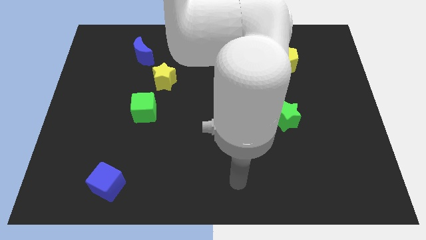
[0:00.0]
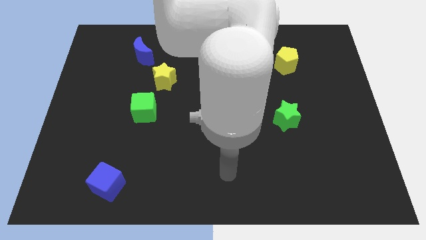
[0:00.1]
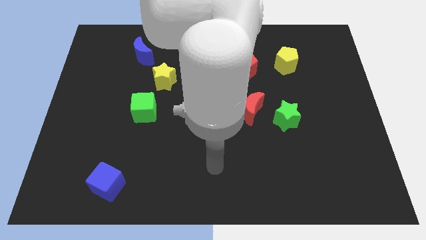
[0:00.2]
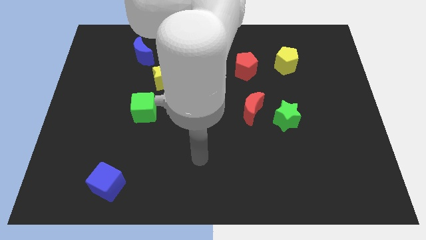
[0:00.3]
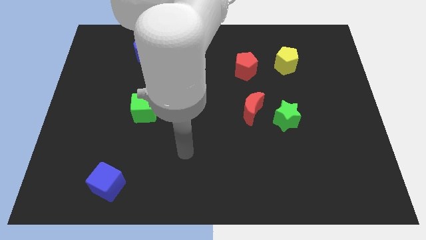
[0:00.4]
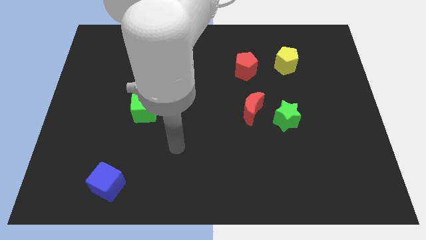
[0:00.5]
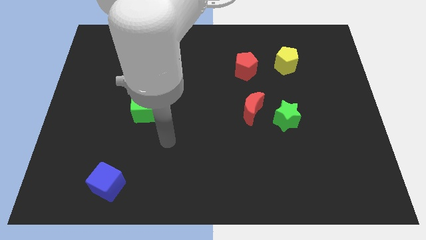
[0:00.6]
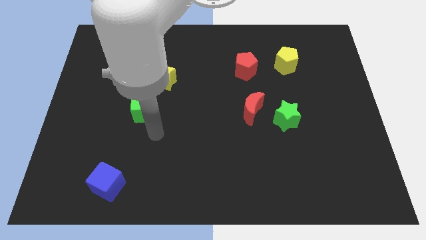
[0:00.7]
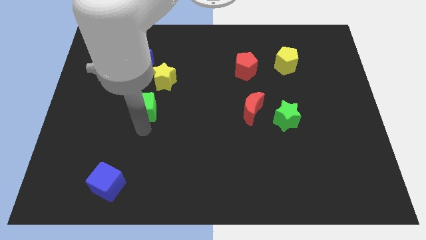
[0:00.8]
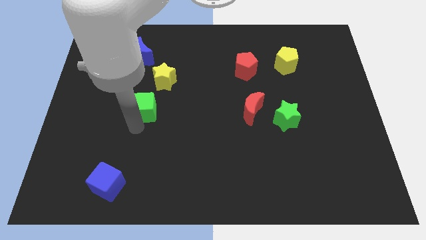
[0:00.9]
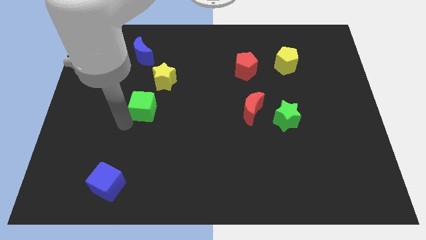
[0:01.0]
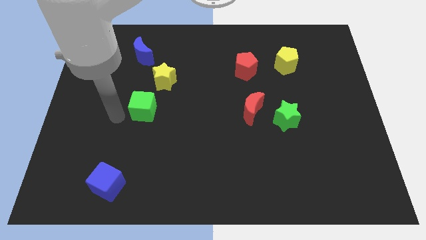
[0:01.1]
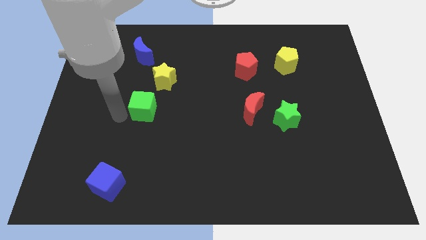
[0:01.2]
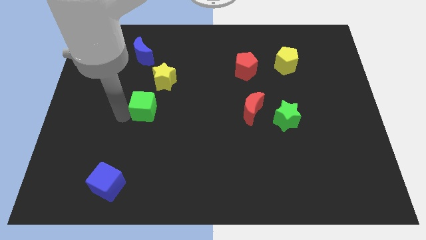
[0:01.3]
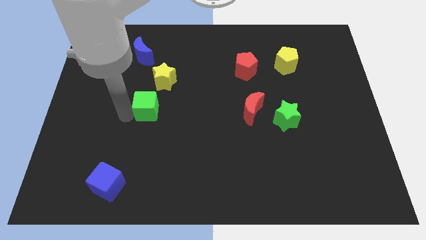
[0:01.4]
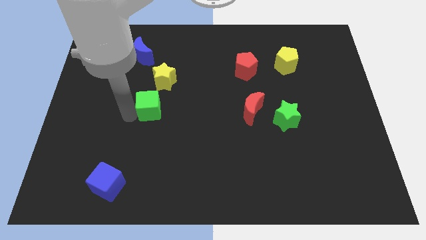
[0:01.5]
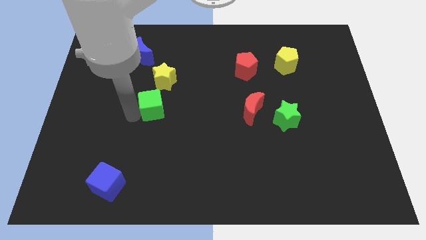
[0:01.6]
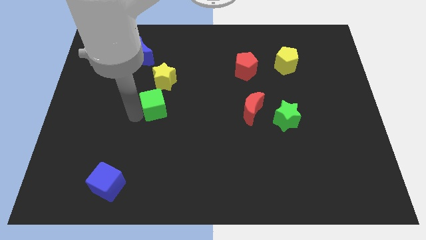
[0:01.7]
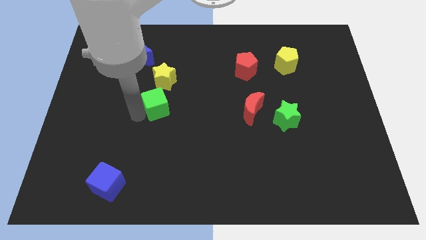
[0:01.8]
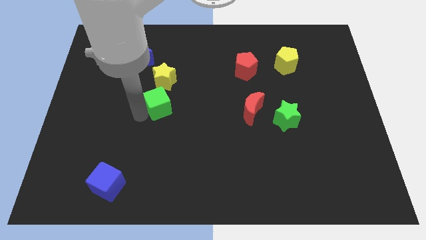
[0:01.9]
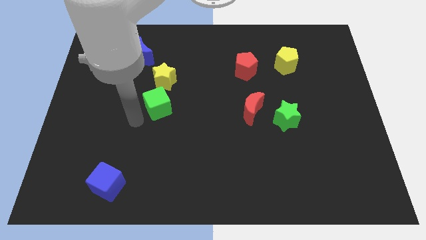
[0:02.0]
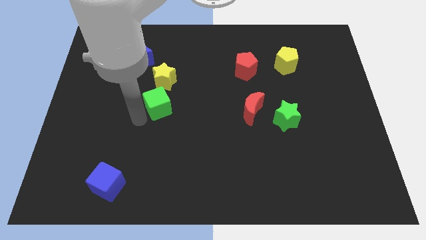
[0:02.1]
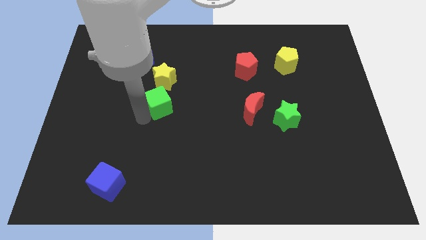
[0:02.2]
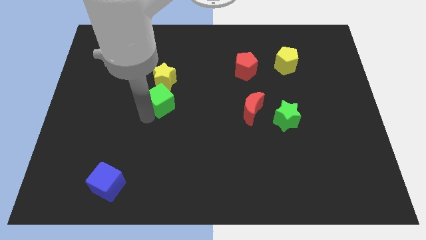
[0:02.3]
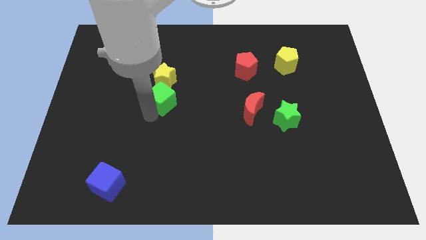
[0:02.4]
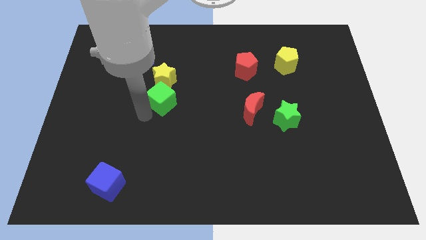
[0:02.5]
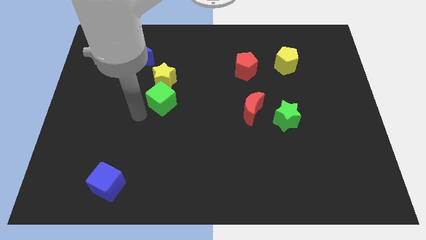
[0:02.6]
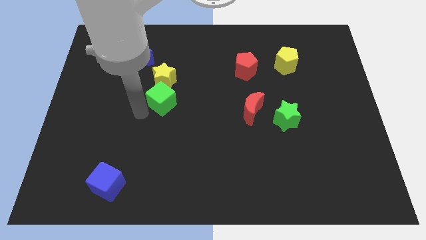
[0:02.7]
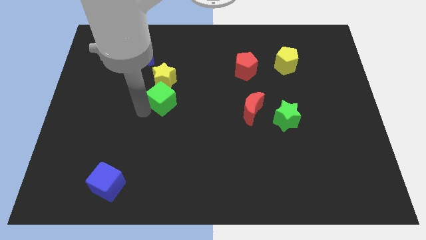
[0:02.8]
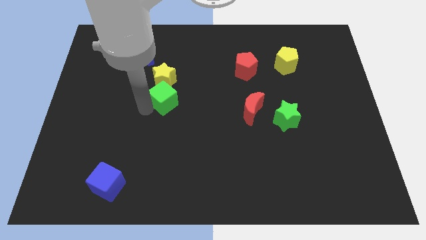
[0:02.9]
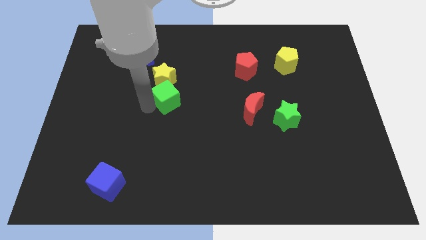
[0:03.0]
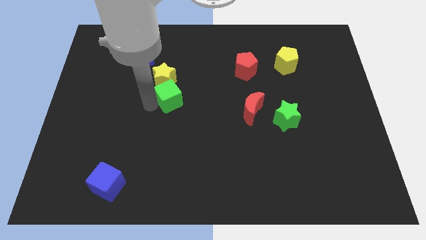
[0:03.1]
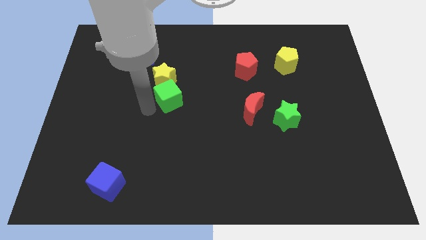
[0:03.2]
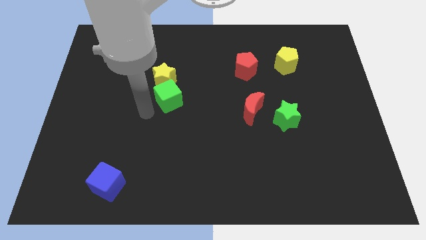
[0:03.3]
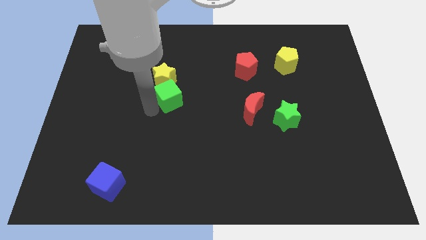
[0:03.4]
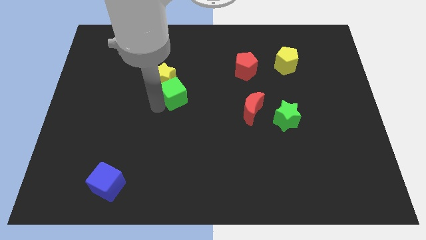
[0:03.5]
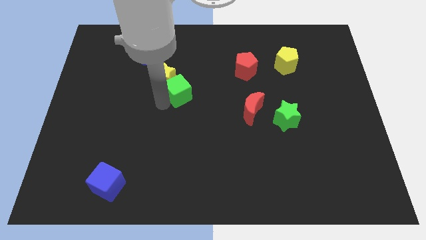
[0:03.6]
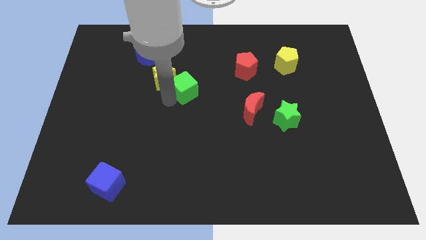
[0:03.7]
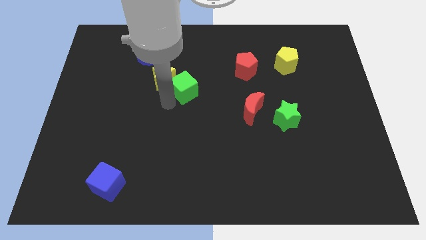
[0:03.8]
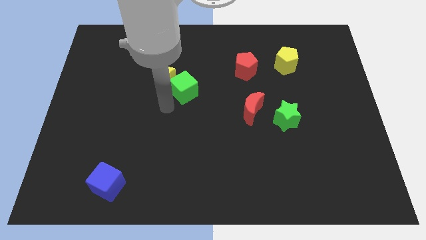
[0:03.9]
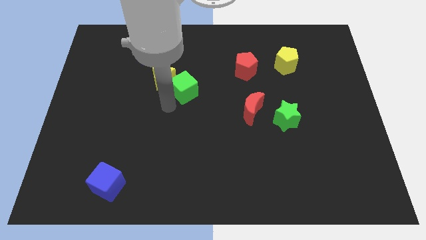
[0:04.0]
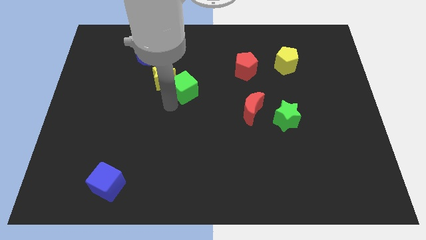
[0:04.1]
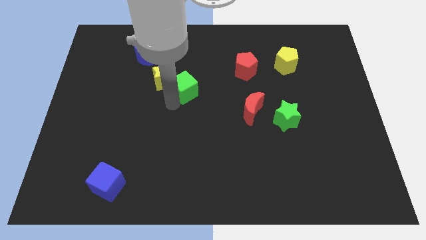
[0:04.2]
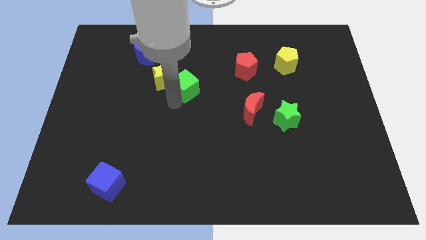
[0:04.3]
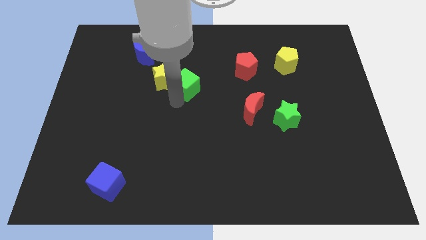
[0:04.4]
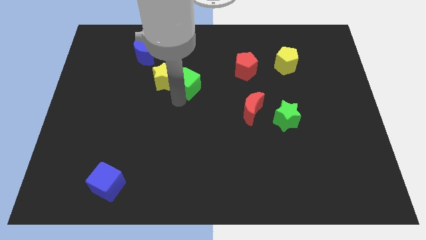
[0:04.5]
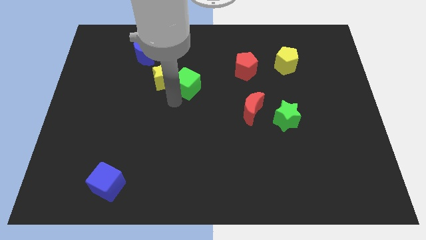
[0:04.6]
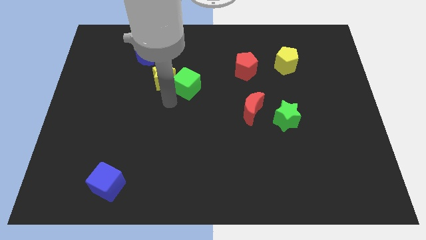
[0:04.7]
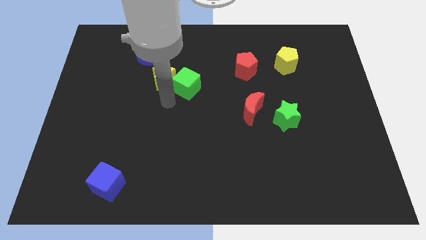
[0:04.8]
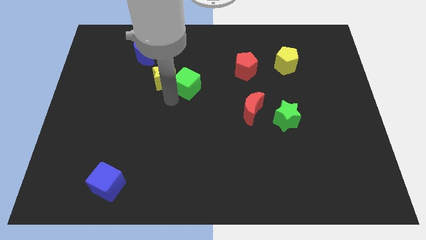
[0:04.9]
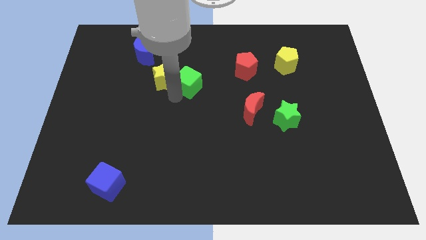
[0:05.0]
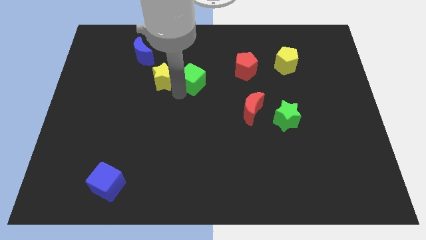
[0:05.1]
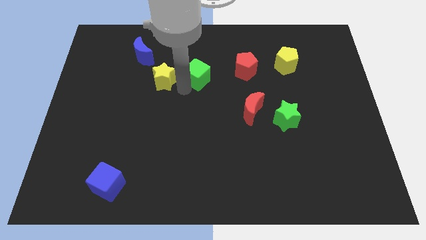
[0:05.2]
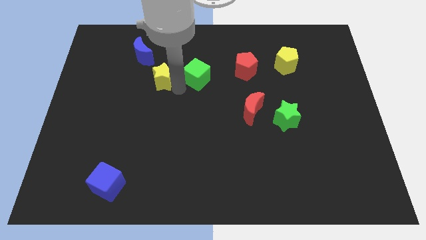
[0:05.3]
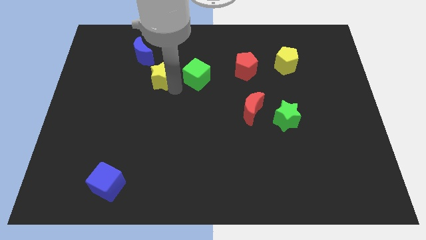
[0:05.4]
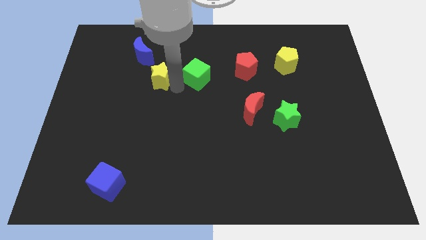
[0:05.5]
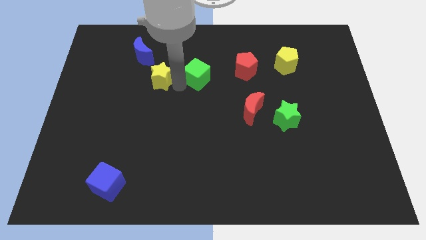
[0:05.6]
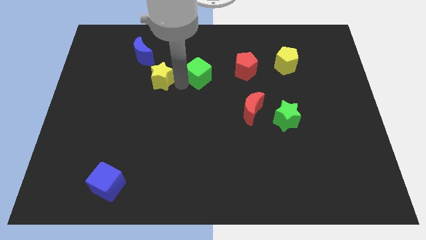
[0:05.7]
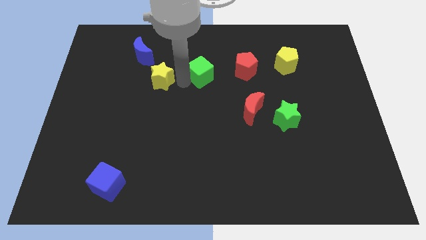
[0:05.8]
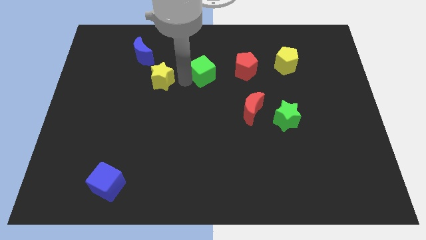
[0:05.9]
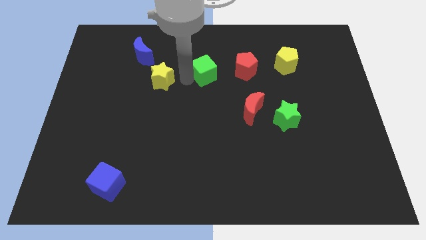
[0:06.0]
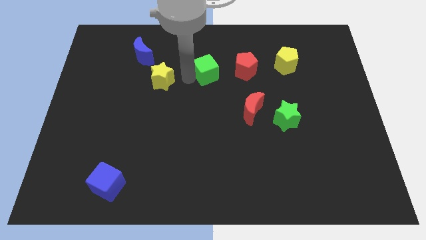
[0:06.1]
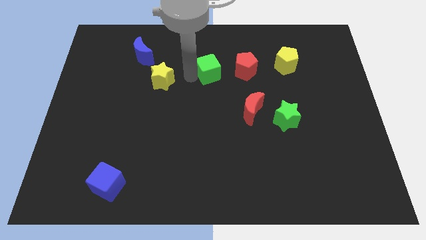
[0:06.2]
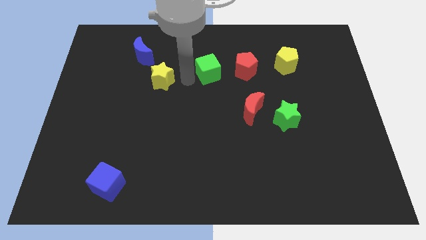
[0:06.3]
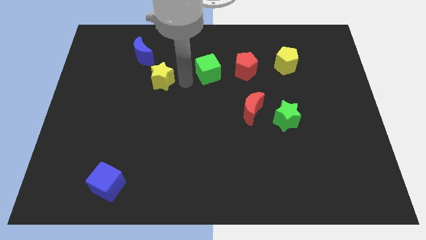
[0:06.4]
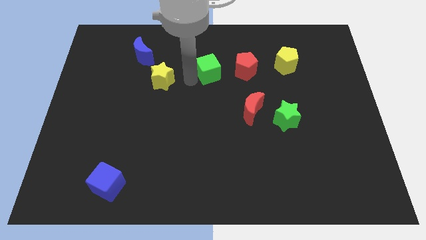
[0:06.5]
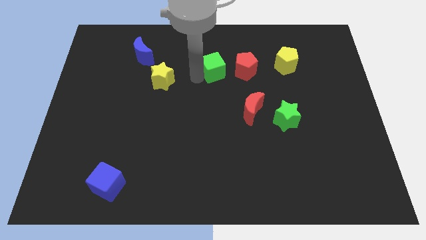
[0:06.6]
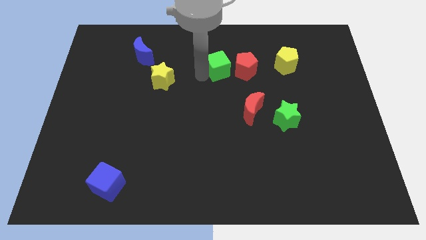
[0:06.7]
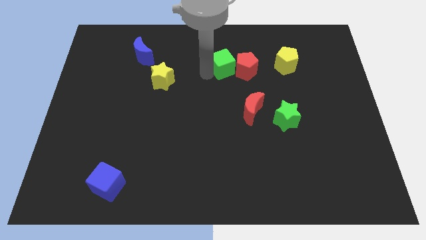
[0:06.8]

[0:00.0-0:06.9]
move the green cube to the left side of the yellow pentagon
